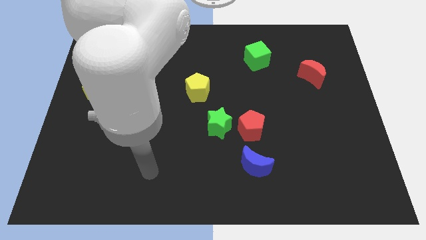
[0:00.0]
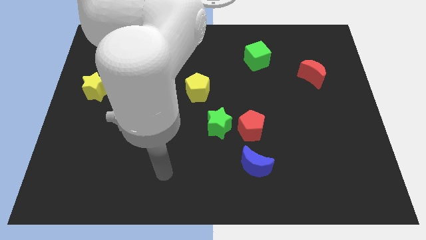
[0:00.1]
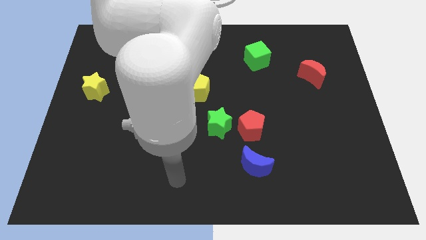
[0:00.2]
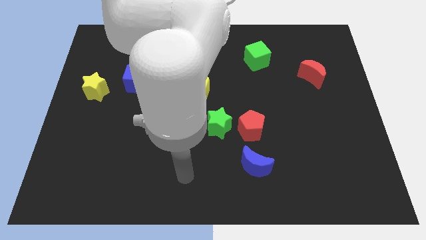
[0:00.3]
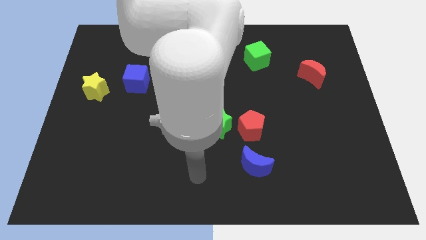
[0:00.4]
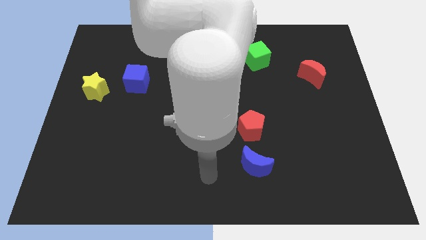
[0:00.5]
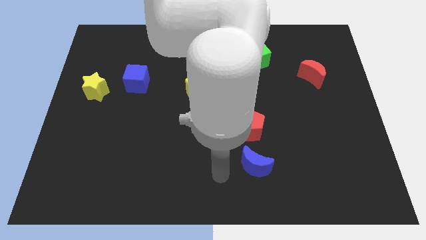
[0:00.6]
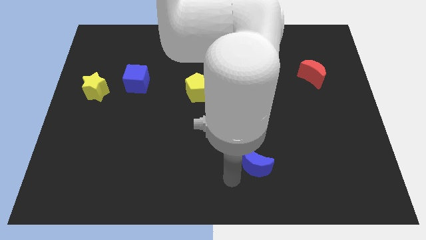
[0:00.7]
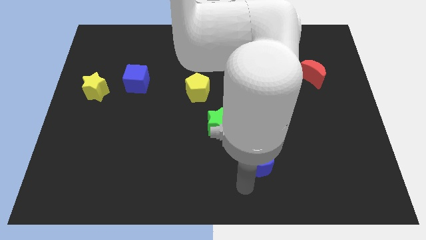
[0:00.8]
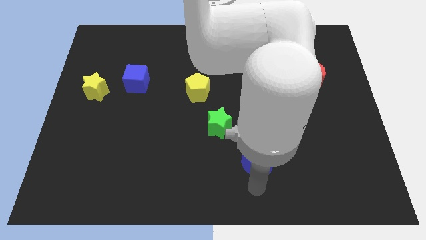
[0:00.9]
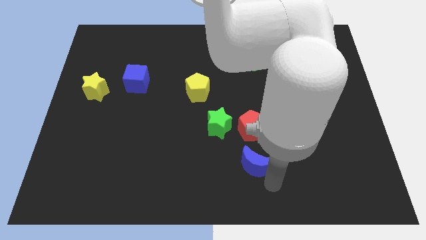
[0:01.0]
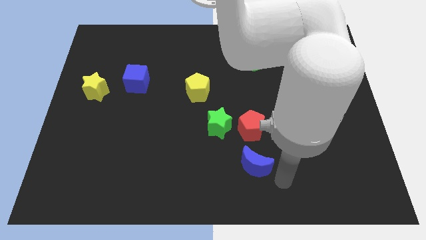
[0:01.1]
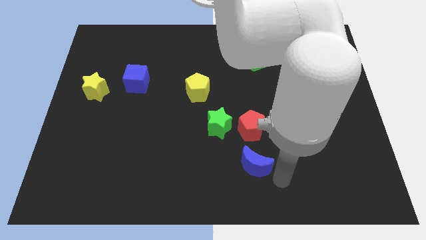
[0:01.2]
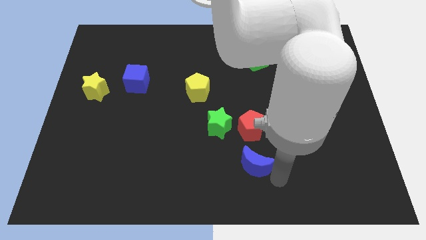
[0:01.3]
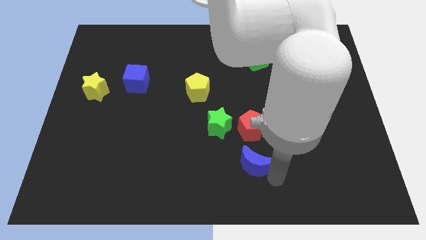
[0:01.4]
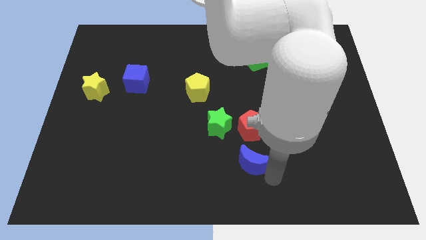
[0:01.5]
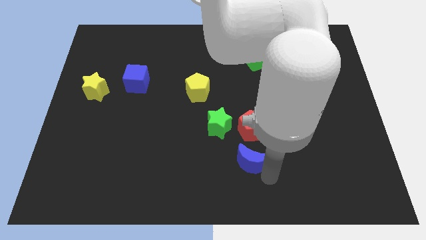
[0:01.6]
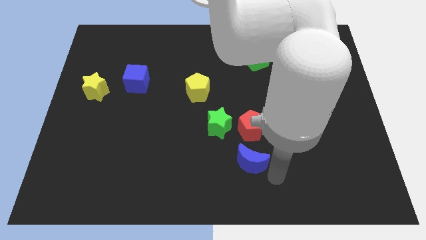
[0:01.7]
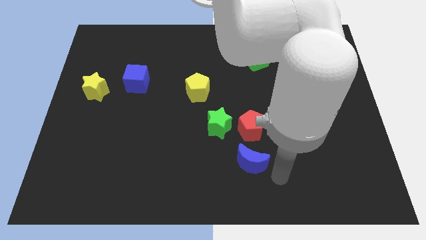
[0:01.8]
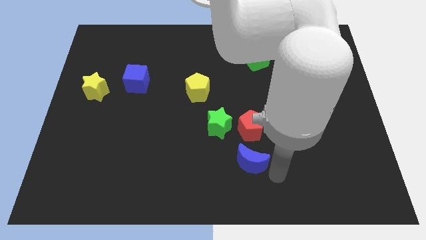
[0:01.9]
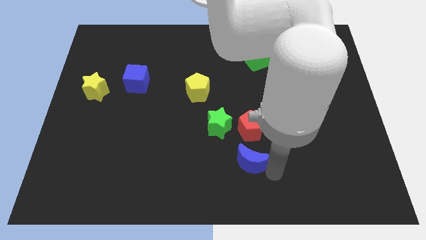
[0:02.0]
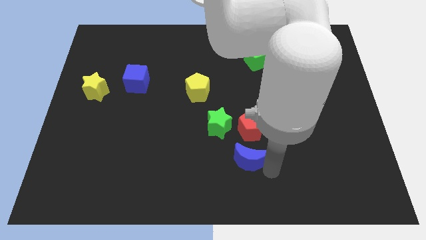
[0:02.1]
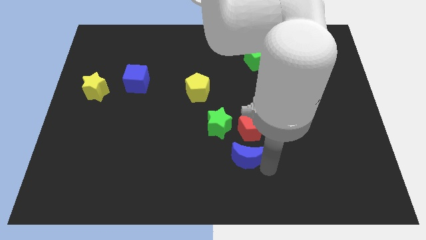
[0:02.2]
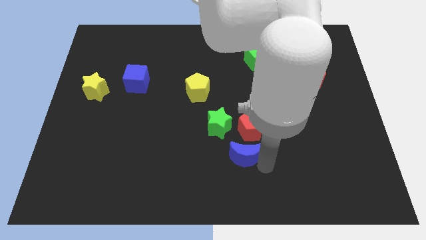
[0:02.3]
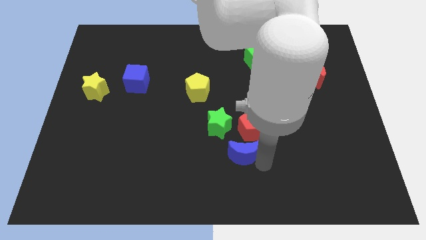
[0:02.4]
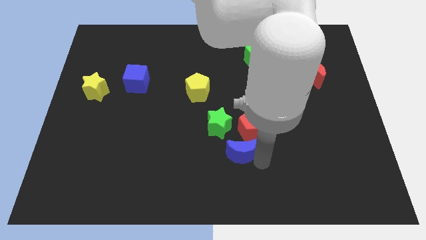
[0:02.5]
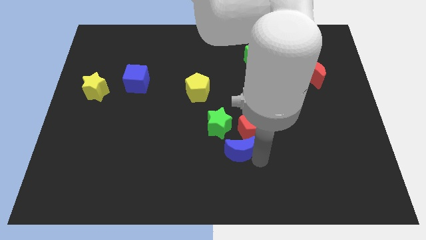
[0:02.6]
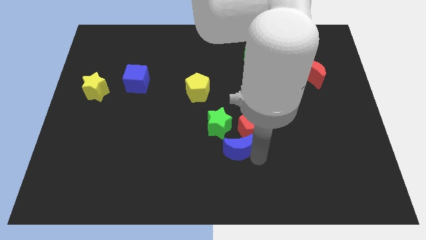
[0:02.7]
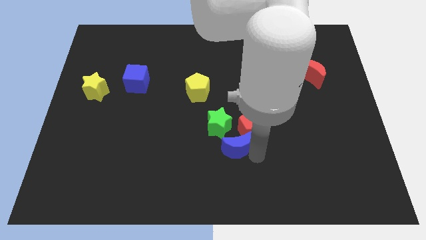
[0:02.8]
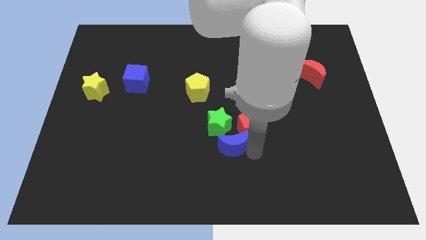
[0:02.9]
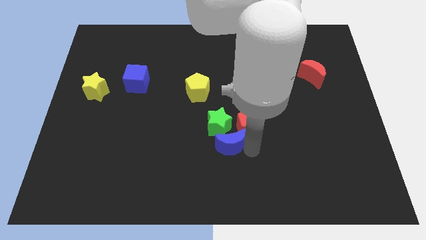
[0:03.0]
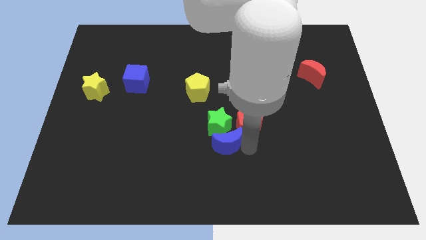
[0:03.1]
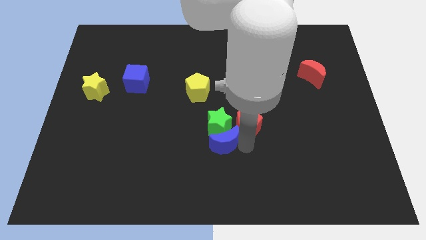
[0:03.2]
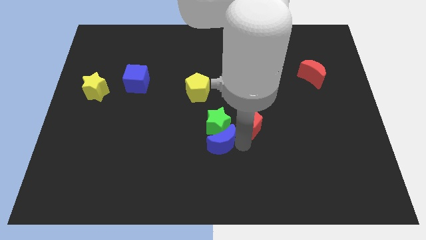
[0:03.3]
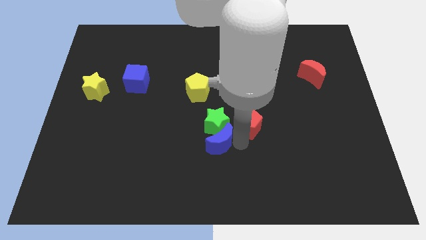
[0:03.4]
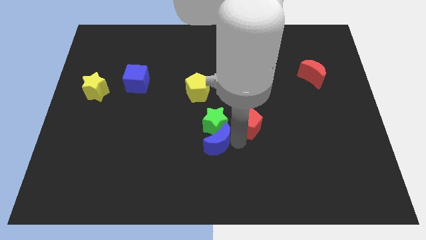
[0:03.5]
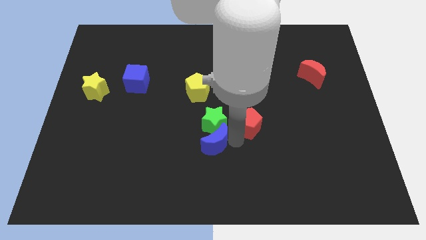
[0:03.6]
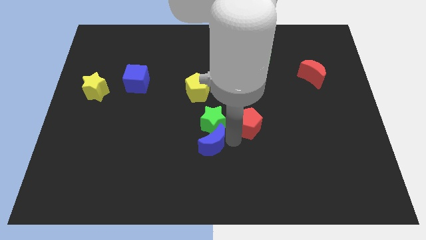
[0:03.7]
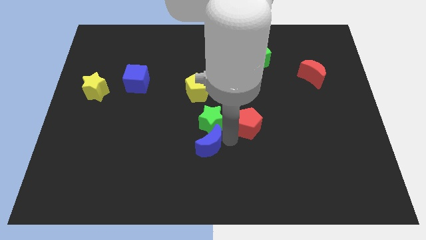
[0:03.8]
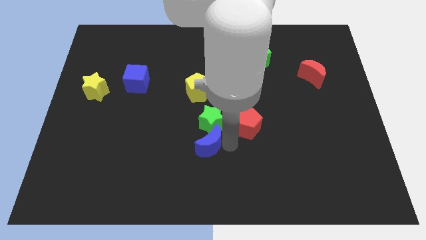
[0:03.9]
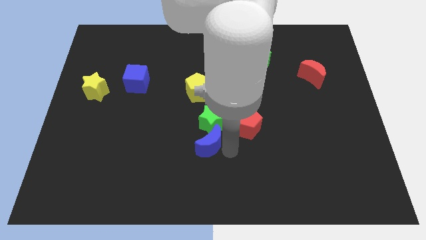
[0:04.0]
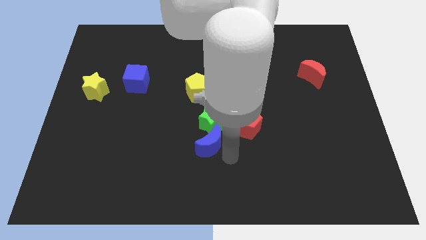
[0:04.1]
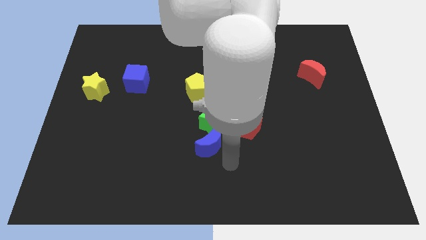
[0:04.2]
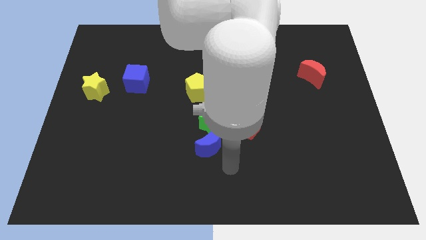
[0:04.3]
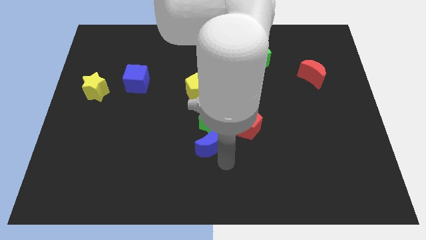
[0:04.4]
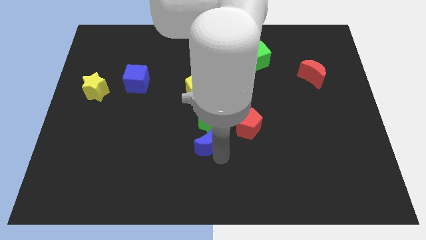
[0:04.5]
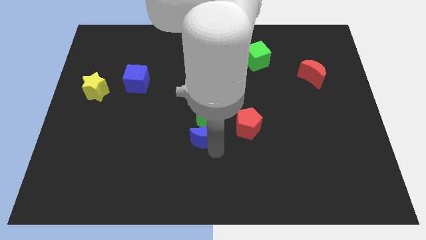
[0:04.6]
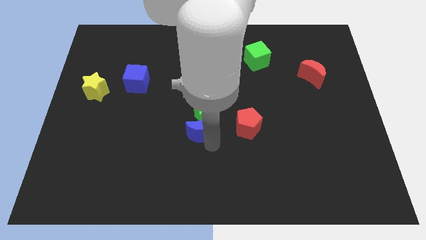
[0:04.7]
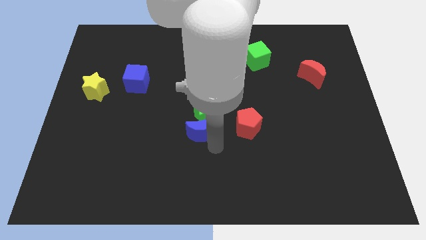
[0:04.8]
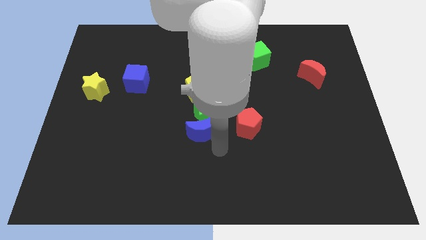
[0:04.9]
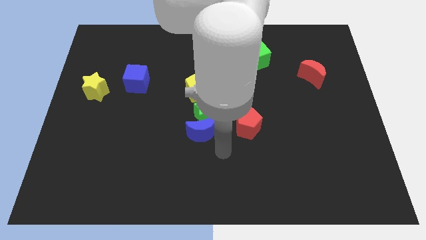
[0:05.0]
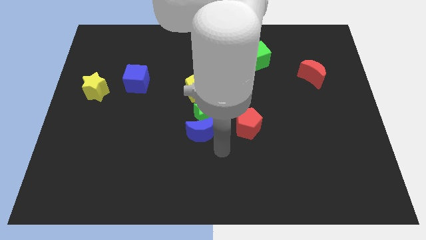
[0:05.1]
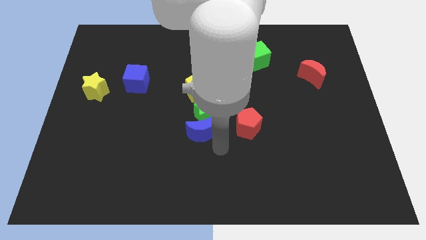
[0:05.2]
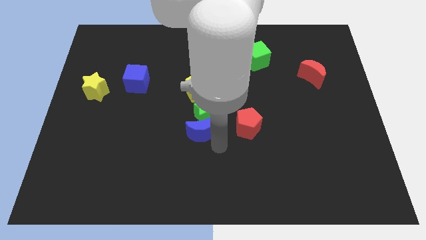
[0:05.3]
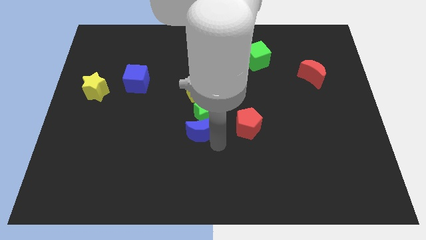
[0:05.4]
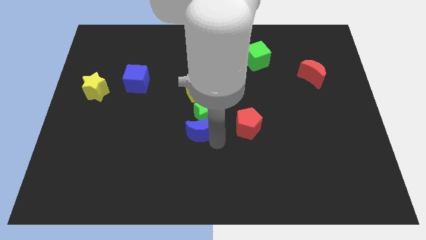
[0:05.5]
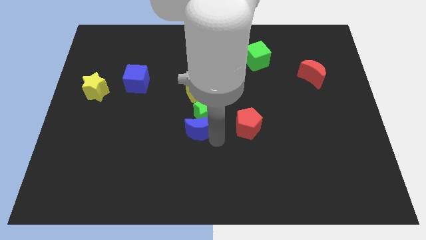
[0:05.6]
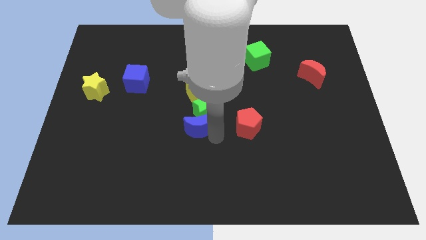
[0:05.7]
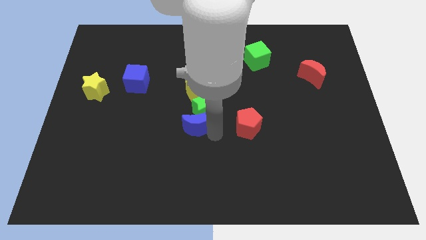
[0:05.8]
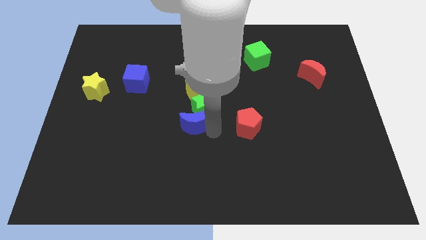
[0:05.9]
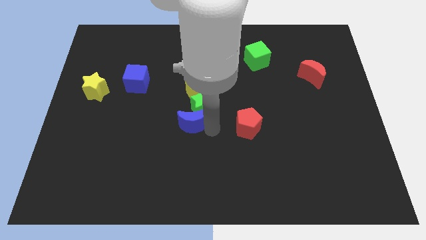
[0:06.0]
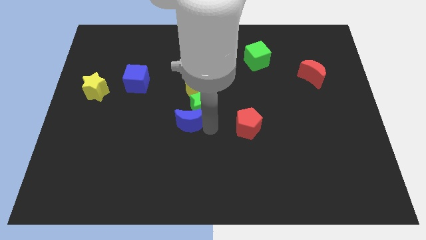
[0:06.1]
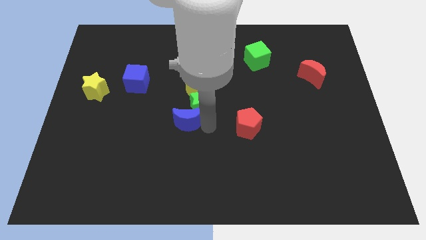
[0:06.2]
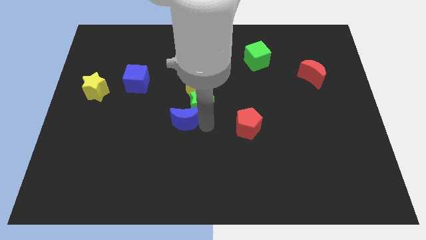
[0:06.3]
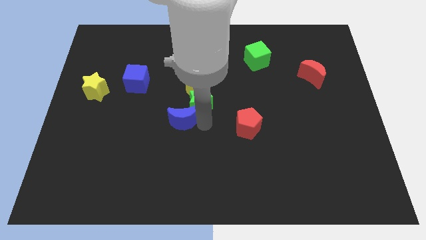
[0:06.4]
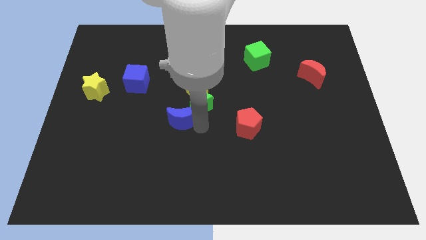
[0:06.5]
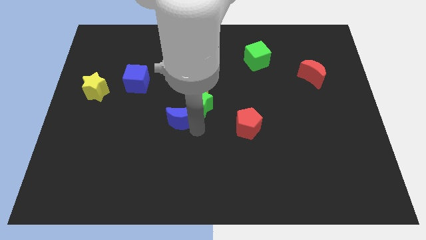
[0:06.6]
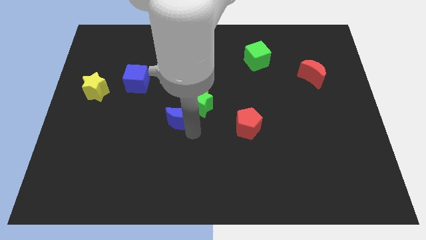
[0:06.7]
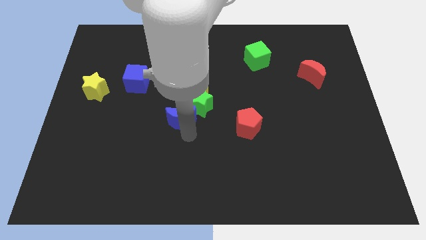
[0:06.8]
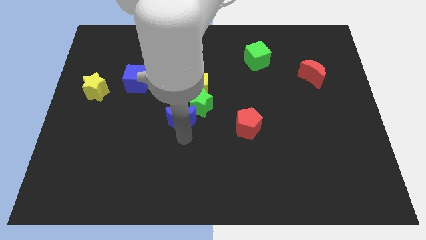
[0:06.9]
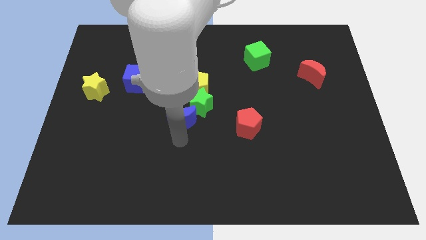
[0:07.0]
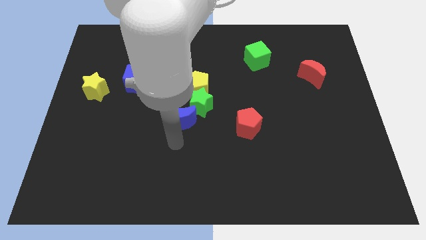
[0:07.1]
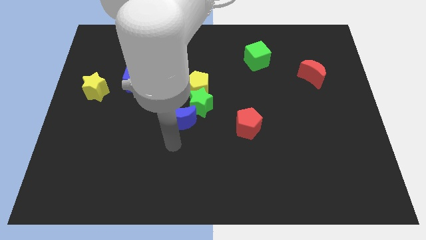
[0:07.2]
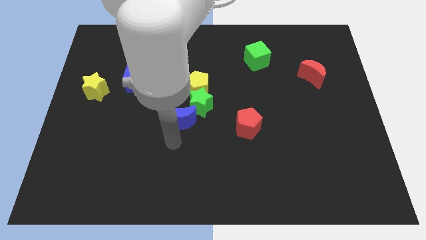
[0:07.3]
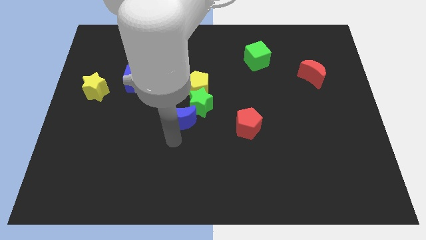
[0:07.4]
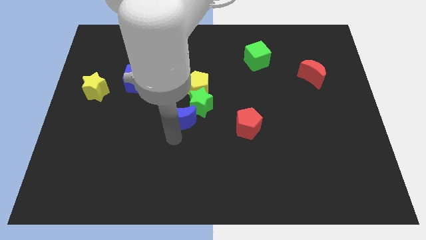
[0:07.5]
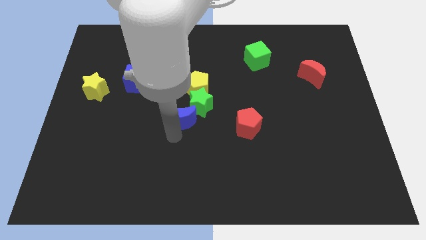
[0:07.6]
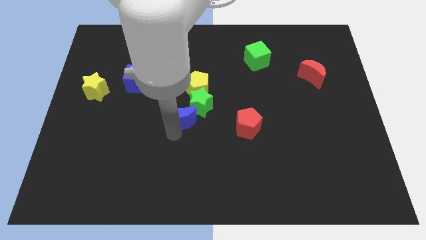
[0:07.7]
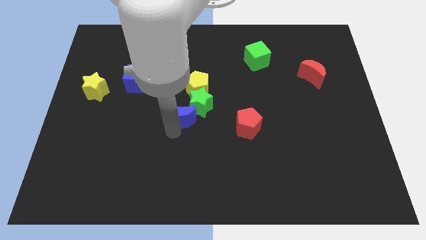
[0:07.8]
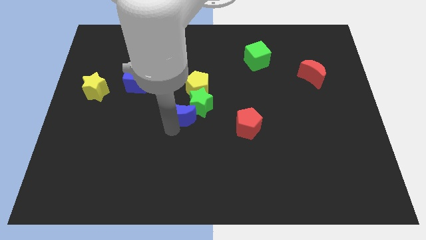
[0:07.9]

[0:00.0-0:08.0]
push the blue moon up and to the left diagonally
